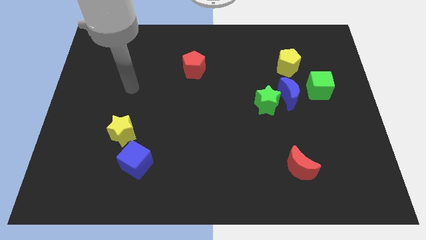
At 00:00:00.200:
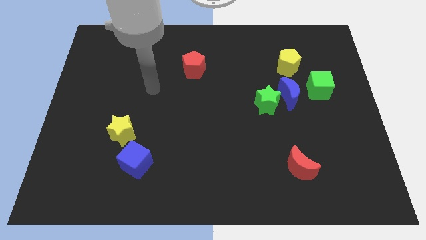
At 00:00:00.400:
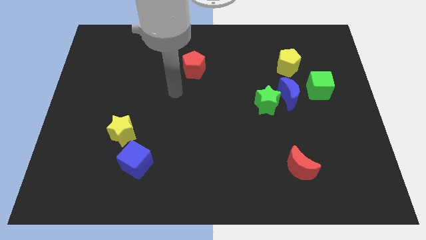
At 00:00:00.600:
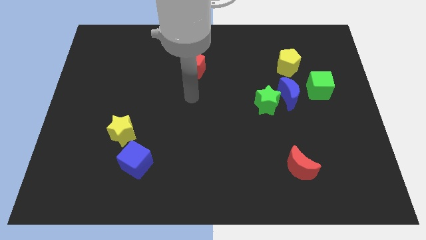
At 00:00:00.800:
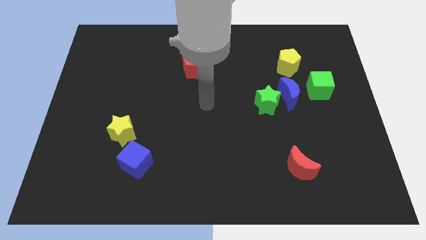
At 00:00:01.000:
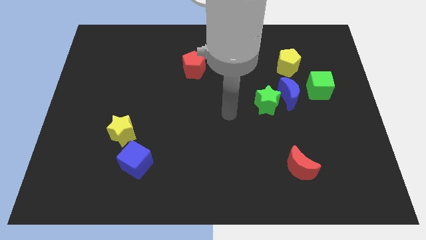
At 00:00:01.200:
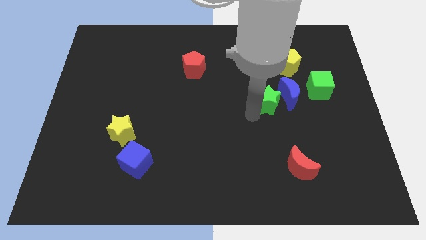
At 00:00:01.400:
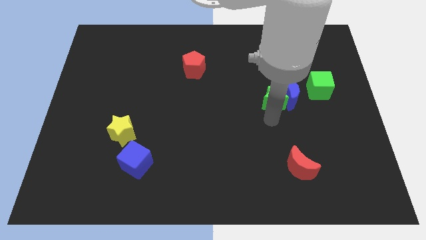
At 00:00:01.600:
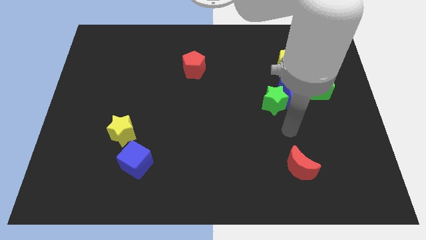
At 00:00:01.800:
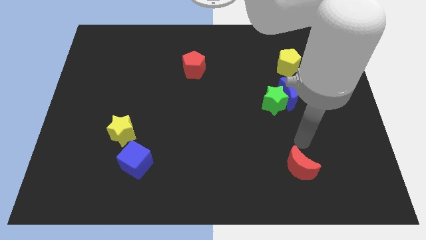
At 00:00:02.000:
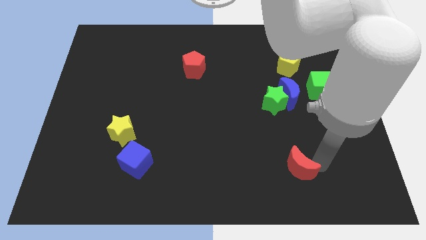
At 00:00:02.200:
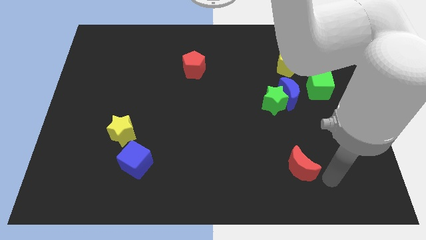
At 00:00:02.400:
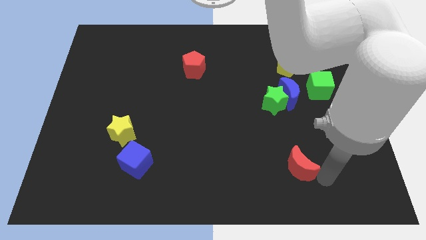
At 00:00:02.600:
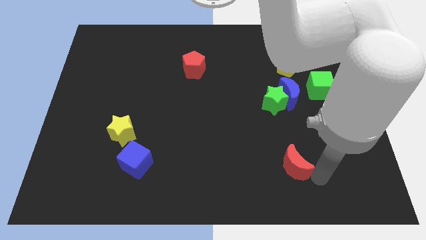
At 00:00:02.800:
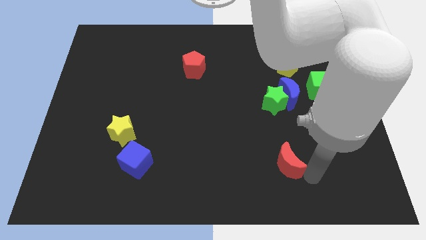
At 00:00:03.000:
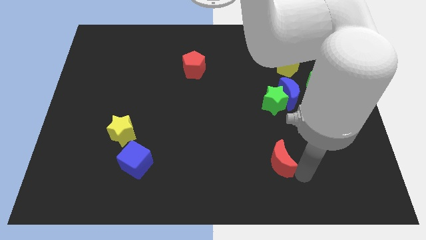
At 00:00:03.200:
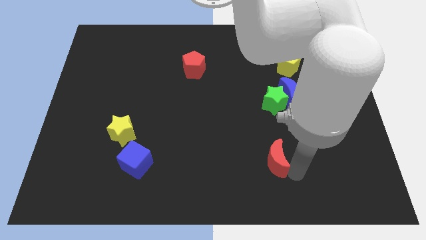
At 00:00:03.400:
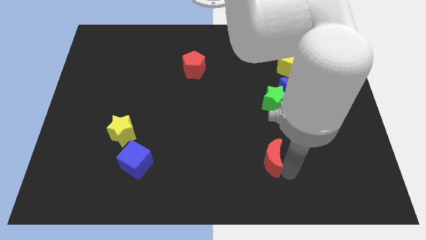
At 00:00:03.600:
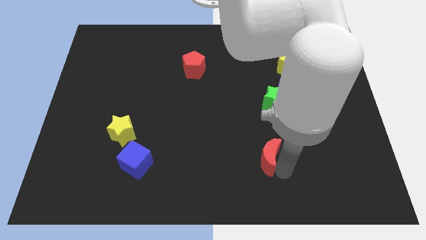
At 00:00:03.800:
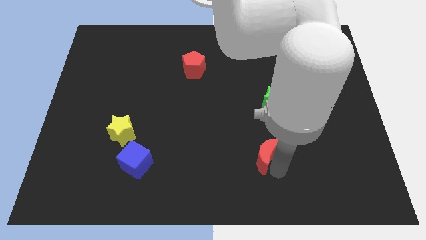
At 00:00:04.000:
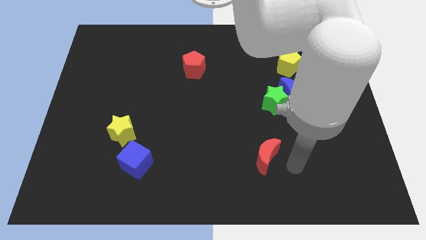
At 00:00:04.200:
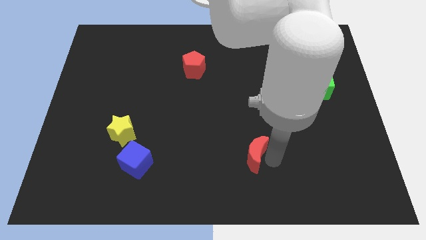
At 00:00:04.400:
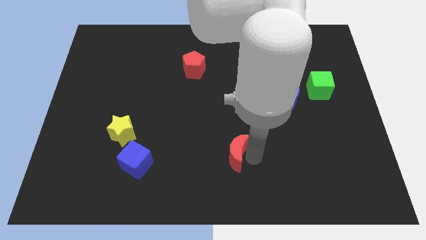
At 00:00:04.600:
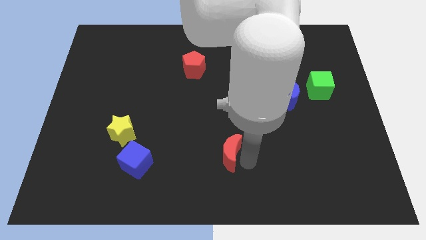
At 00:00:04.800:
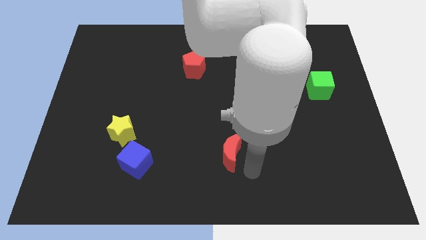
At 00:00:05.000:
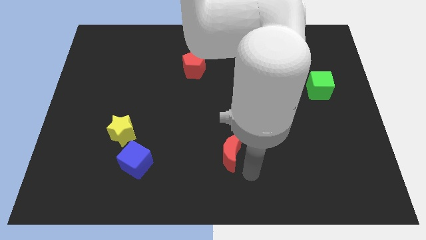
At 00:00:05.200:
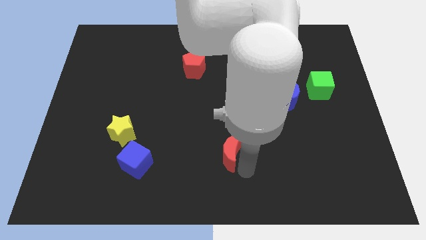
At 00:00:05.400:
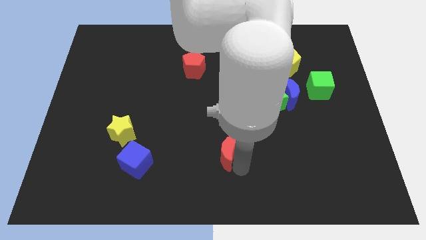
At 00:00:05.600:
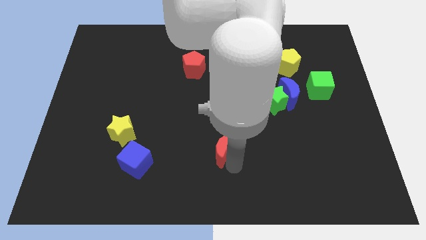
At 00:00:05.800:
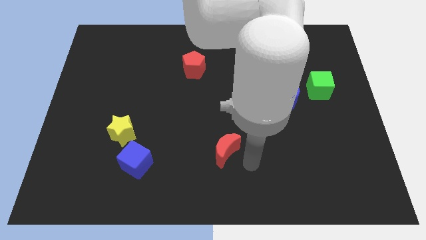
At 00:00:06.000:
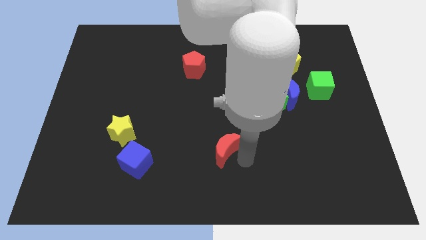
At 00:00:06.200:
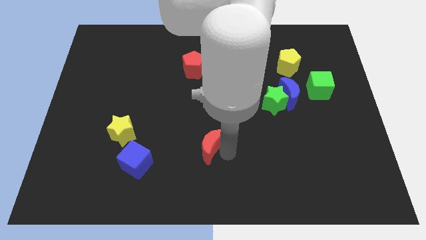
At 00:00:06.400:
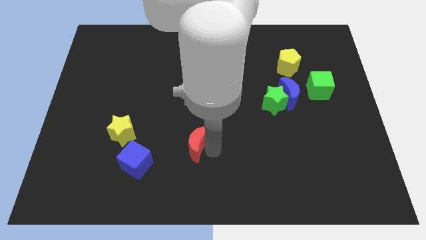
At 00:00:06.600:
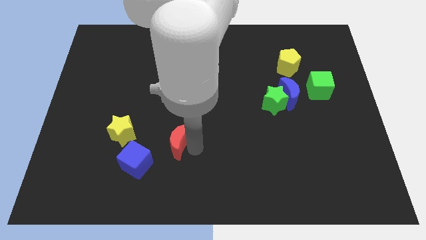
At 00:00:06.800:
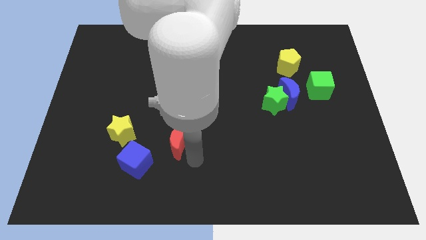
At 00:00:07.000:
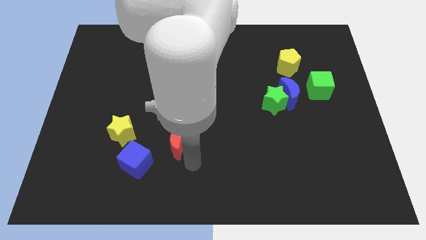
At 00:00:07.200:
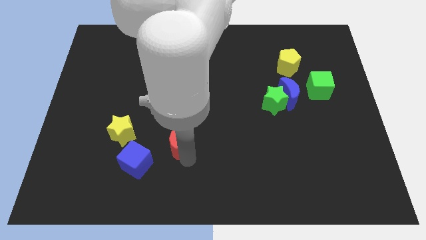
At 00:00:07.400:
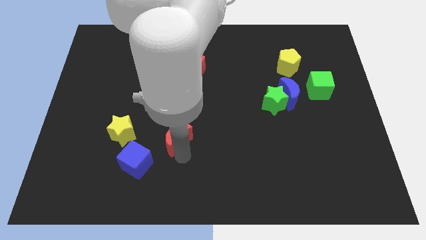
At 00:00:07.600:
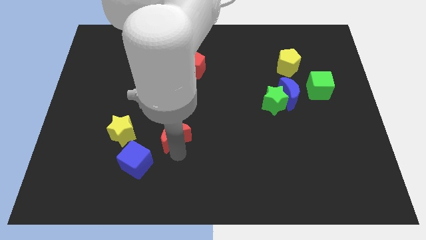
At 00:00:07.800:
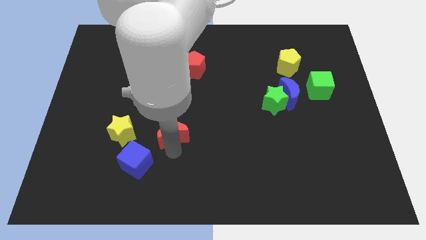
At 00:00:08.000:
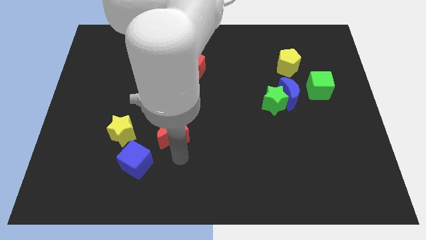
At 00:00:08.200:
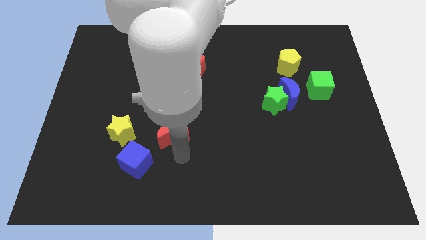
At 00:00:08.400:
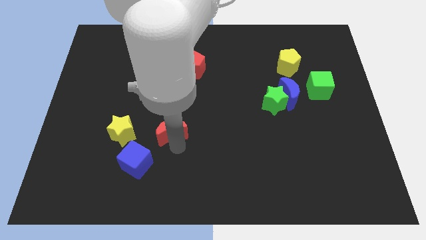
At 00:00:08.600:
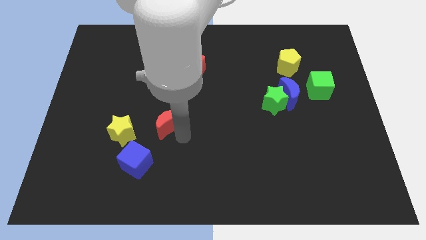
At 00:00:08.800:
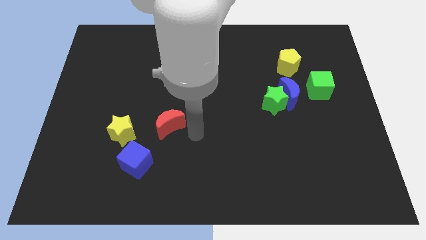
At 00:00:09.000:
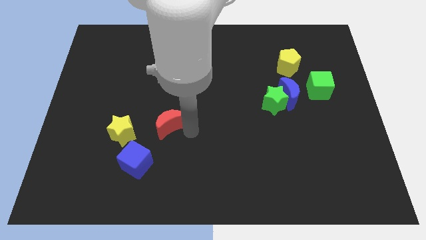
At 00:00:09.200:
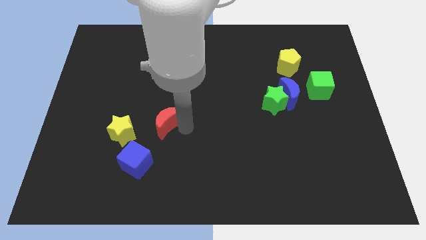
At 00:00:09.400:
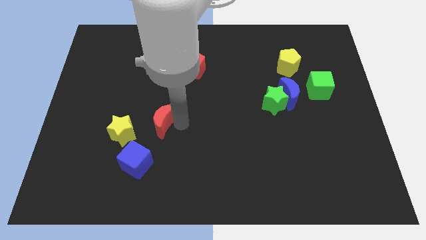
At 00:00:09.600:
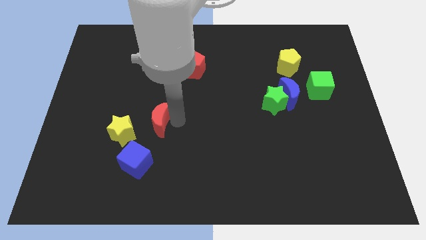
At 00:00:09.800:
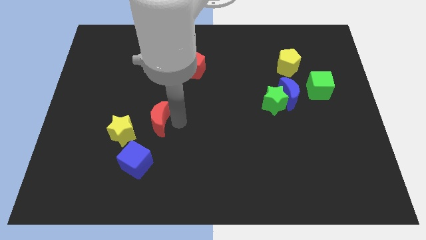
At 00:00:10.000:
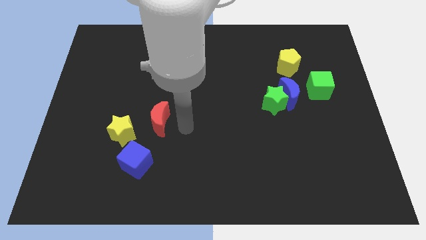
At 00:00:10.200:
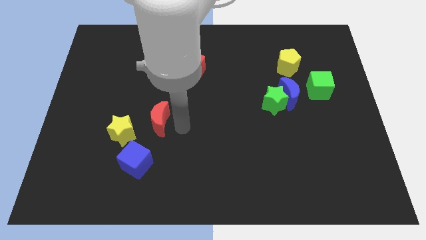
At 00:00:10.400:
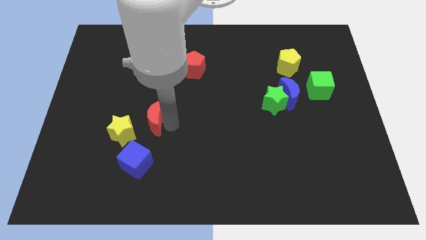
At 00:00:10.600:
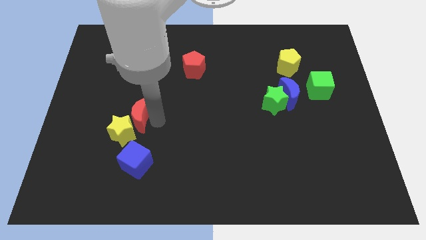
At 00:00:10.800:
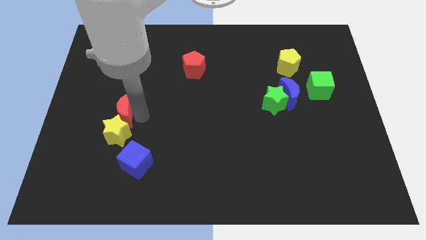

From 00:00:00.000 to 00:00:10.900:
slide the red moon diagonally up and to the left of the yellow star

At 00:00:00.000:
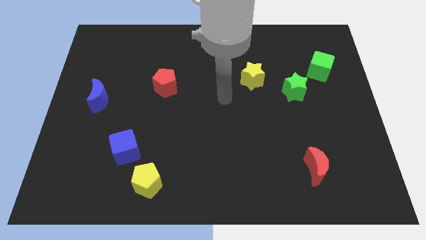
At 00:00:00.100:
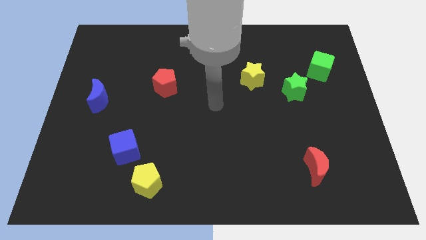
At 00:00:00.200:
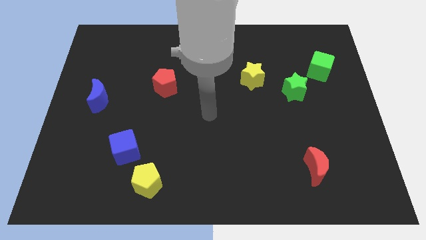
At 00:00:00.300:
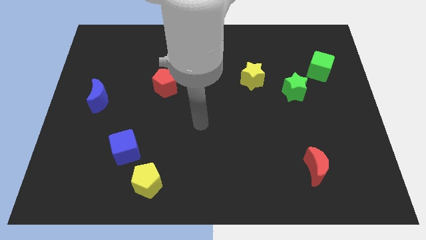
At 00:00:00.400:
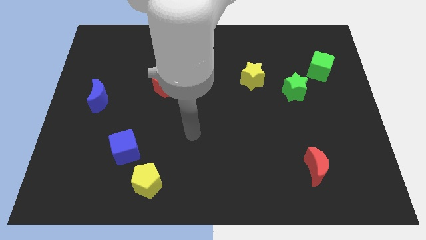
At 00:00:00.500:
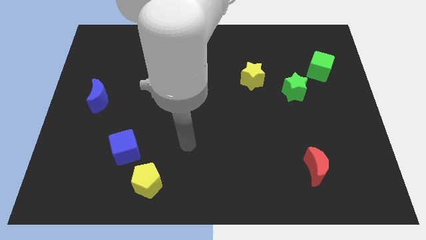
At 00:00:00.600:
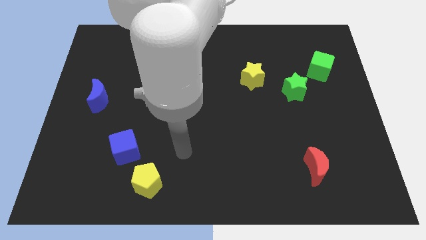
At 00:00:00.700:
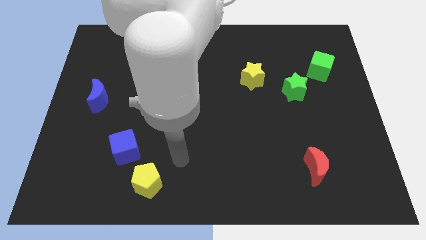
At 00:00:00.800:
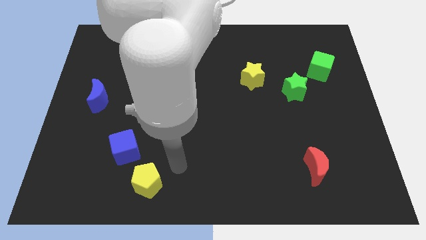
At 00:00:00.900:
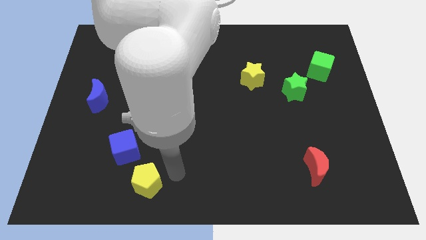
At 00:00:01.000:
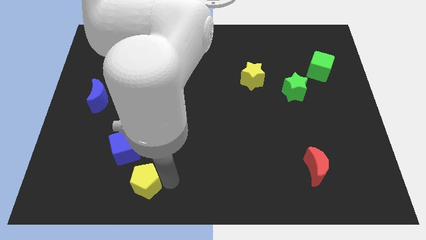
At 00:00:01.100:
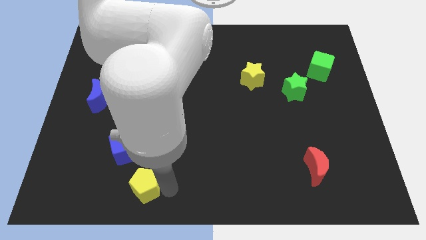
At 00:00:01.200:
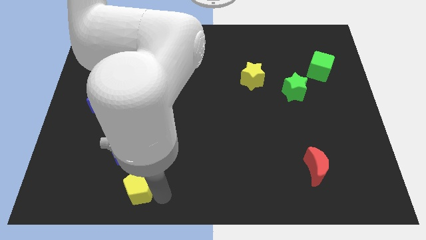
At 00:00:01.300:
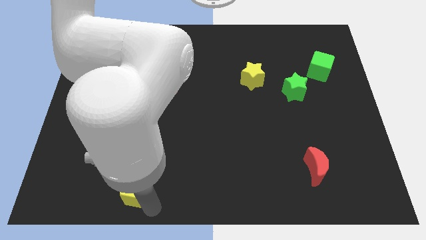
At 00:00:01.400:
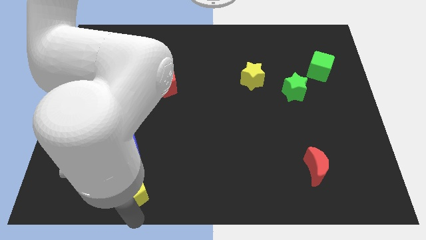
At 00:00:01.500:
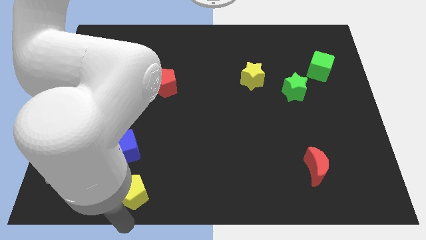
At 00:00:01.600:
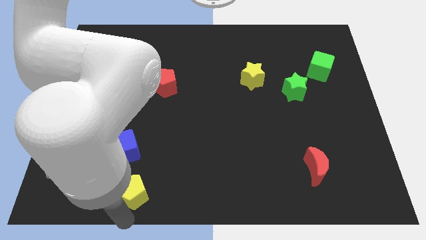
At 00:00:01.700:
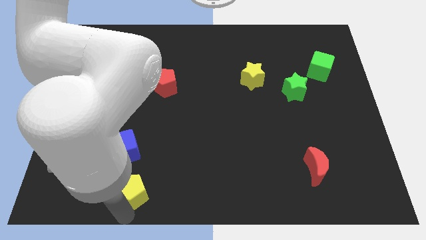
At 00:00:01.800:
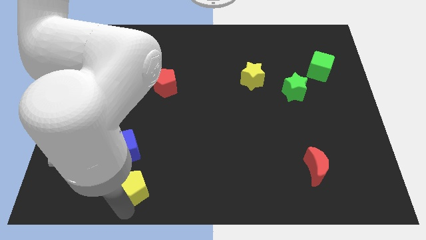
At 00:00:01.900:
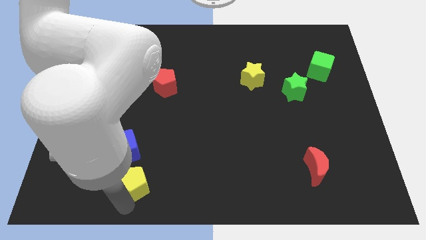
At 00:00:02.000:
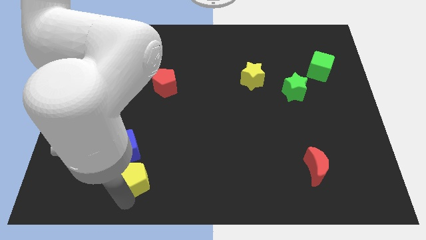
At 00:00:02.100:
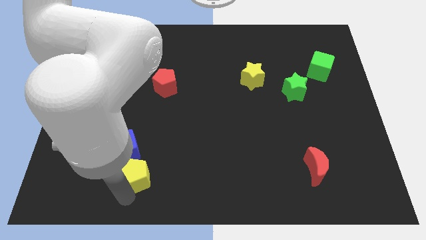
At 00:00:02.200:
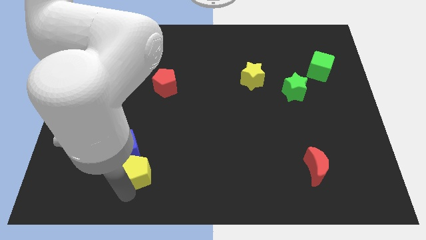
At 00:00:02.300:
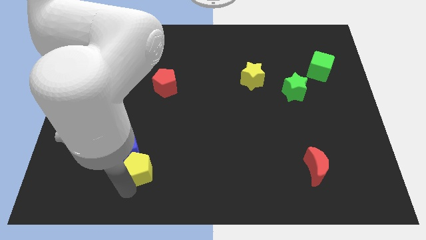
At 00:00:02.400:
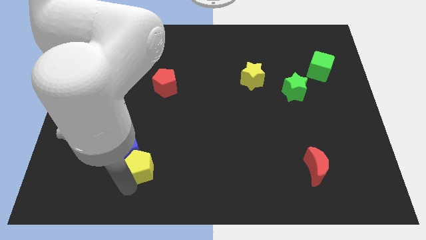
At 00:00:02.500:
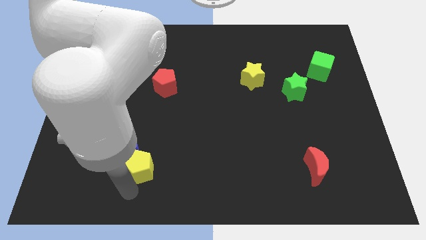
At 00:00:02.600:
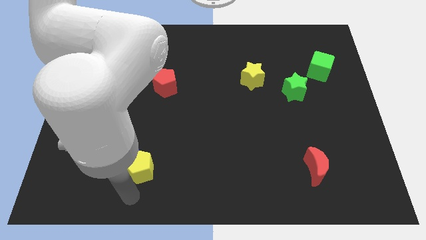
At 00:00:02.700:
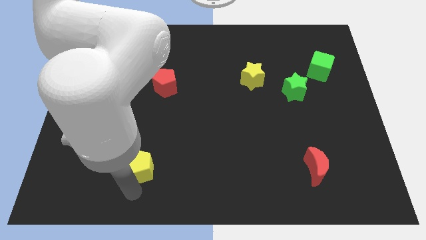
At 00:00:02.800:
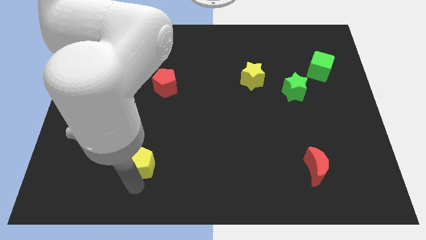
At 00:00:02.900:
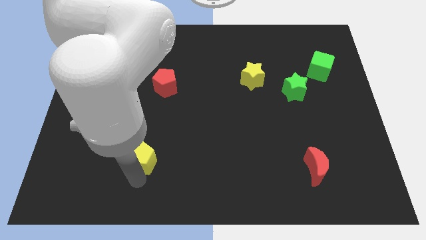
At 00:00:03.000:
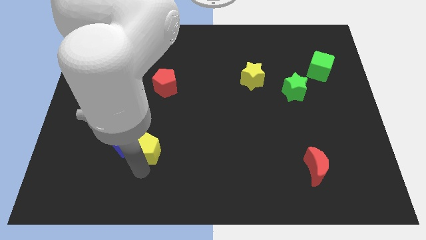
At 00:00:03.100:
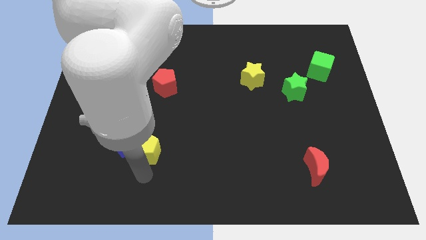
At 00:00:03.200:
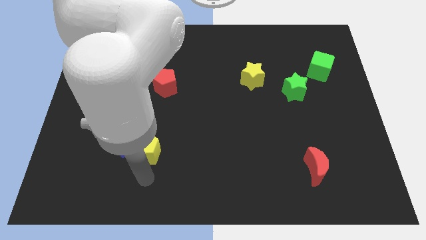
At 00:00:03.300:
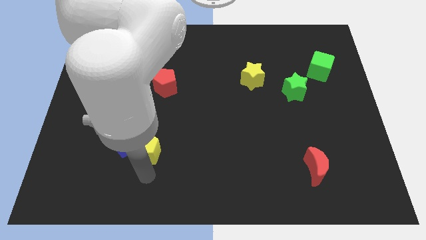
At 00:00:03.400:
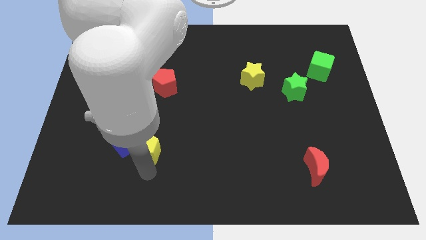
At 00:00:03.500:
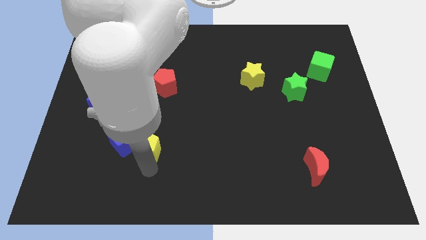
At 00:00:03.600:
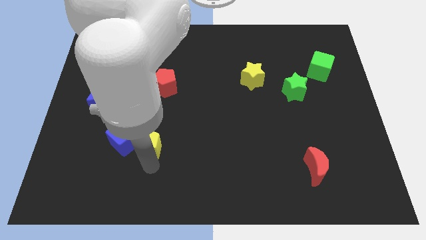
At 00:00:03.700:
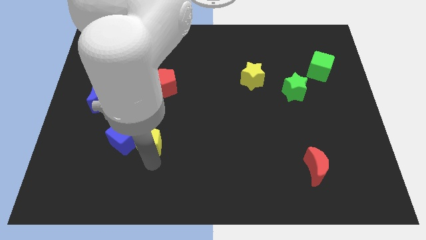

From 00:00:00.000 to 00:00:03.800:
slide the yellow pentagon to the top right of the blue cube
